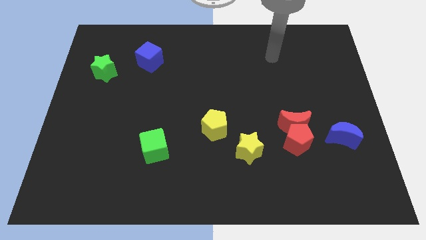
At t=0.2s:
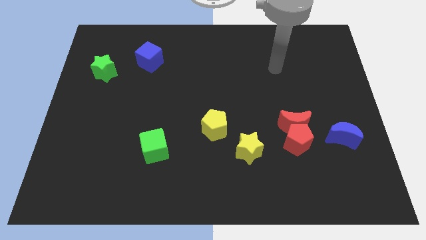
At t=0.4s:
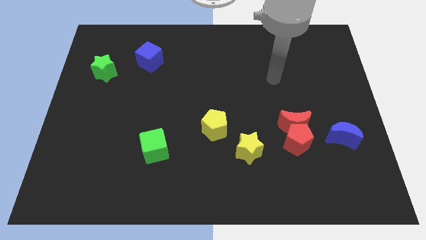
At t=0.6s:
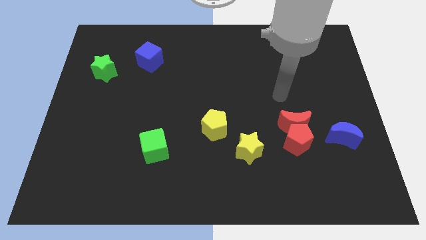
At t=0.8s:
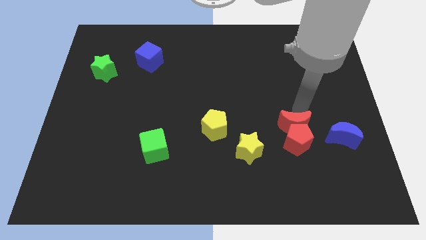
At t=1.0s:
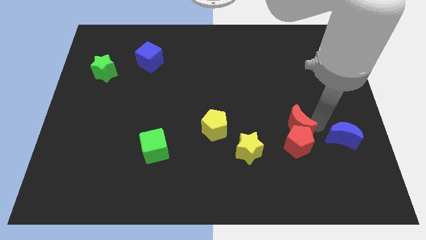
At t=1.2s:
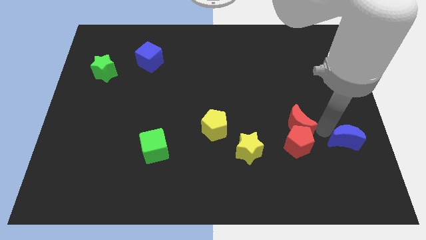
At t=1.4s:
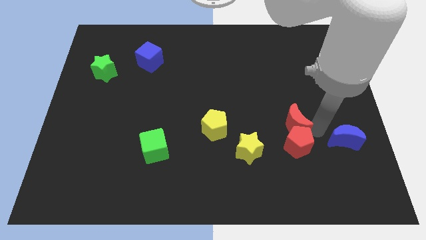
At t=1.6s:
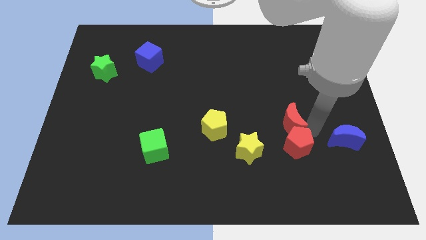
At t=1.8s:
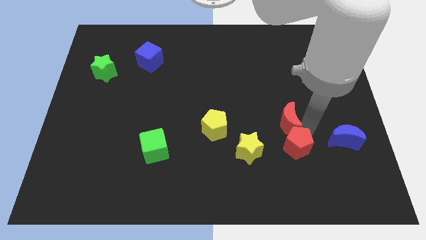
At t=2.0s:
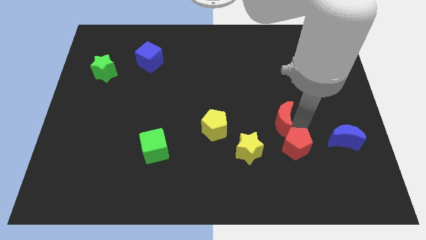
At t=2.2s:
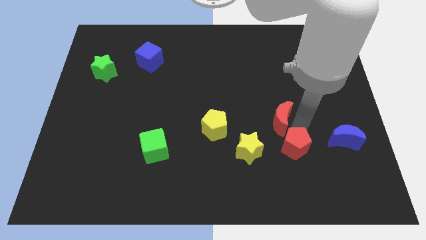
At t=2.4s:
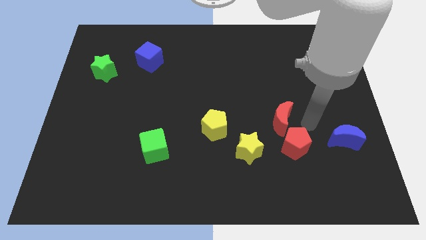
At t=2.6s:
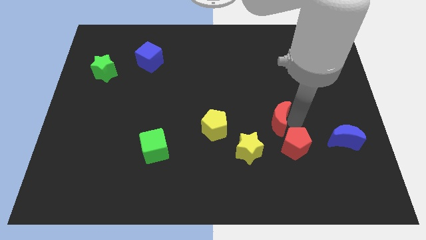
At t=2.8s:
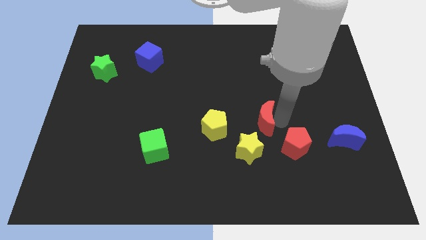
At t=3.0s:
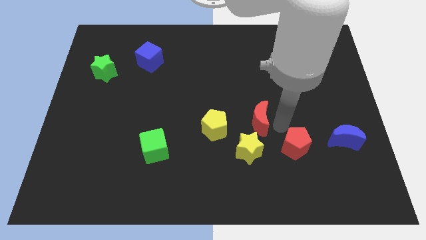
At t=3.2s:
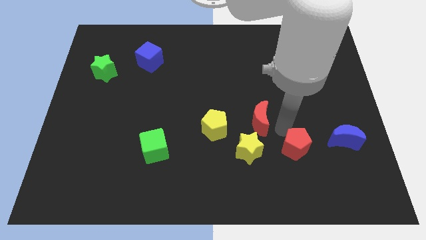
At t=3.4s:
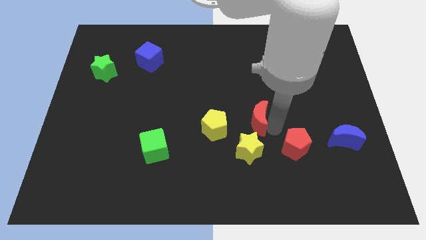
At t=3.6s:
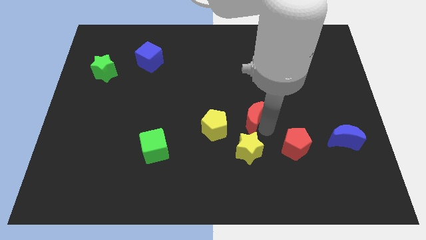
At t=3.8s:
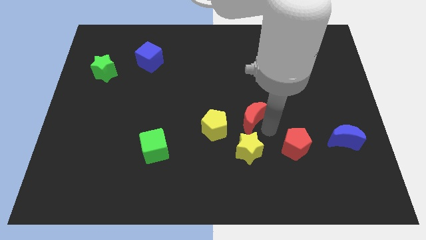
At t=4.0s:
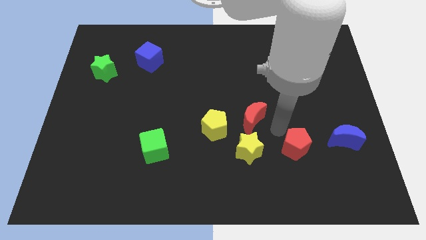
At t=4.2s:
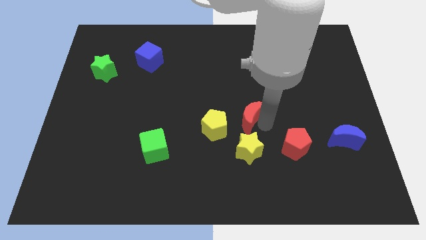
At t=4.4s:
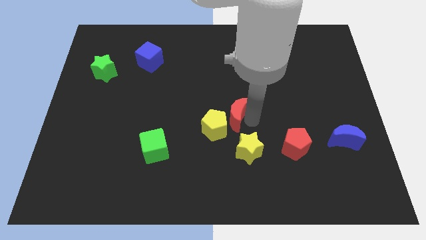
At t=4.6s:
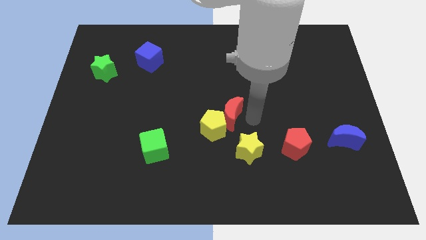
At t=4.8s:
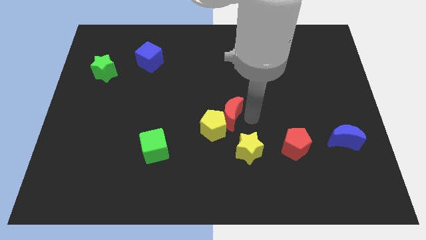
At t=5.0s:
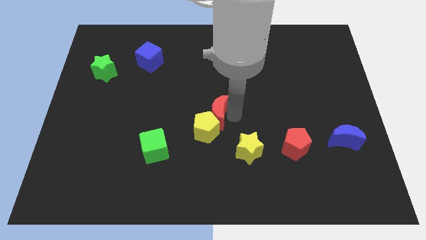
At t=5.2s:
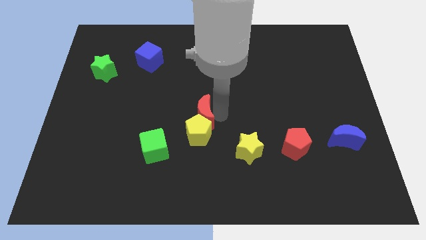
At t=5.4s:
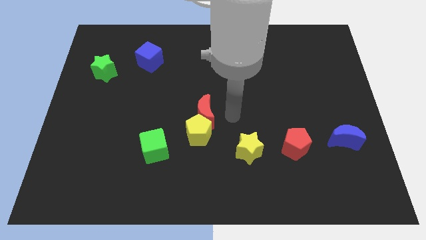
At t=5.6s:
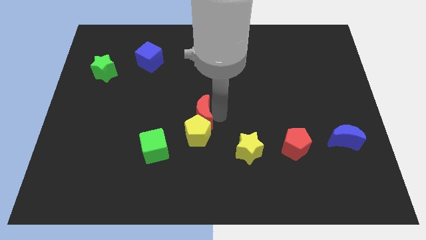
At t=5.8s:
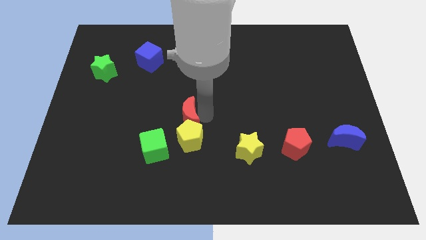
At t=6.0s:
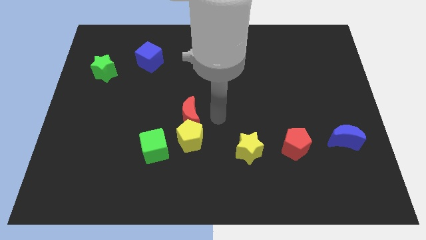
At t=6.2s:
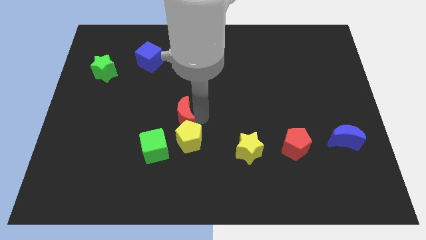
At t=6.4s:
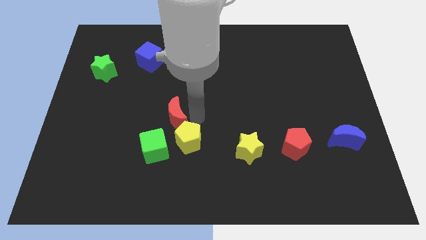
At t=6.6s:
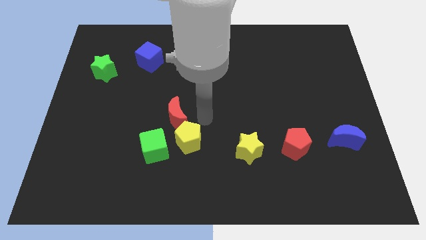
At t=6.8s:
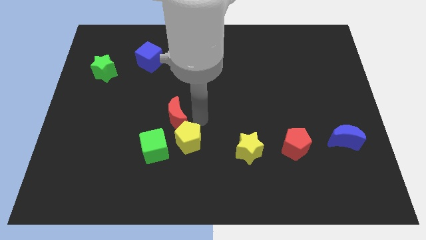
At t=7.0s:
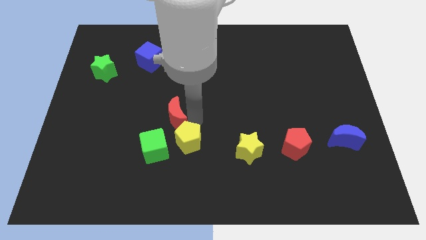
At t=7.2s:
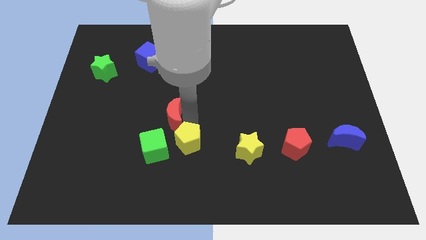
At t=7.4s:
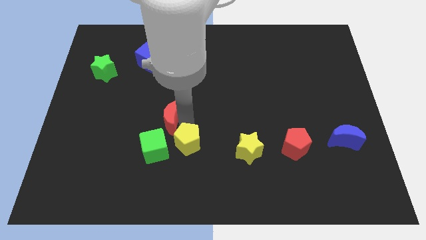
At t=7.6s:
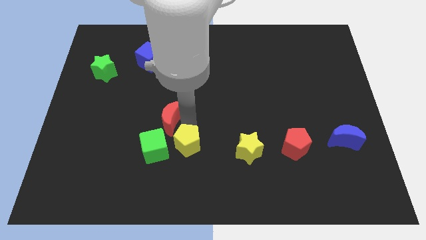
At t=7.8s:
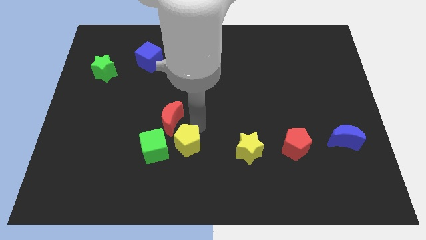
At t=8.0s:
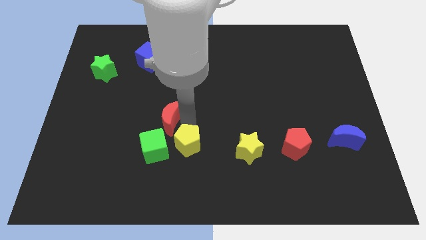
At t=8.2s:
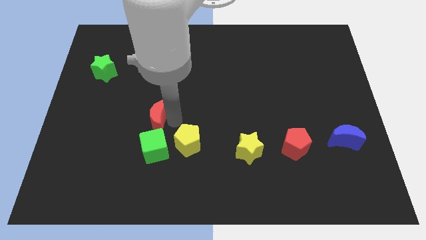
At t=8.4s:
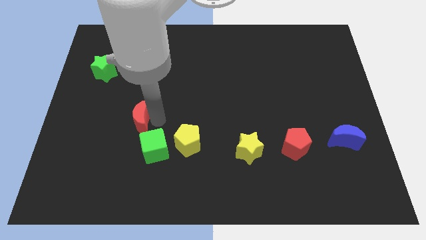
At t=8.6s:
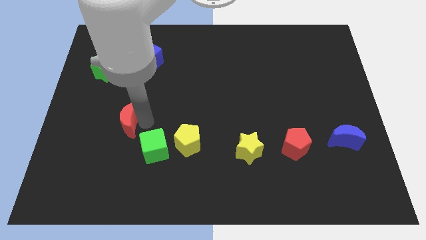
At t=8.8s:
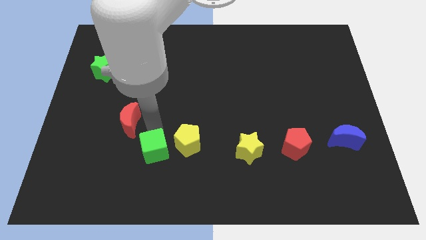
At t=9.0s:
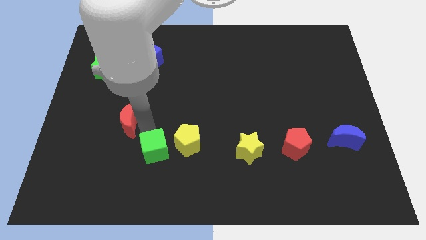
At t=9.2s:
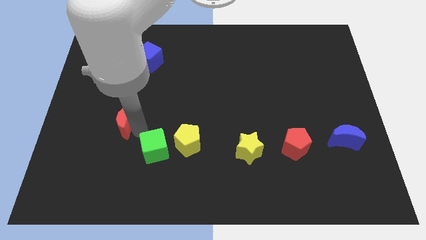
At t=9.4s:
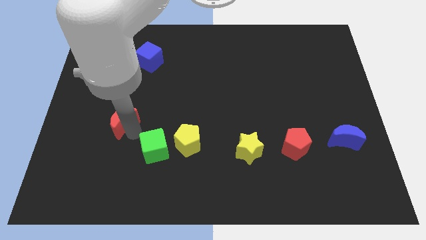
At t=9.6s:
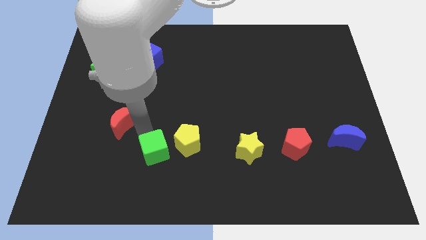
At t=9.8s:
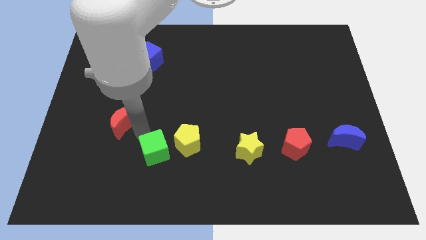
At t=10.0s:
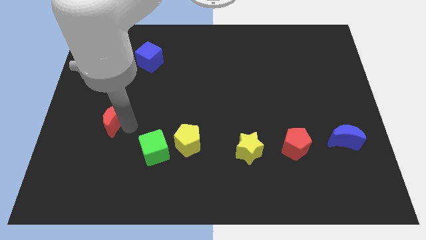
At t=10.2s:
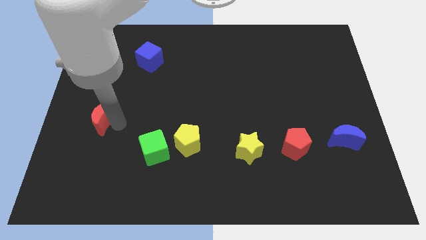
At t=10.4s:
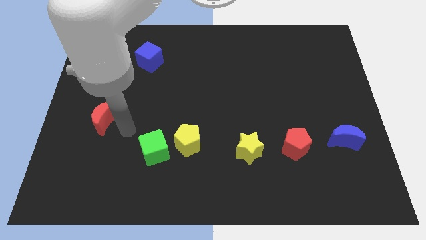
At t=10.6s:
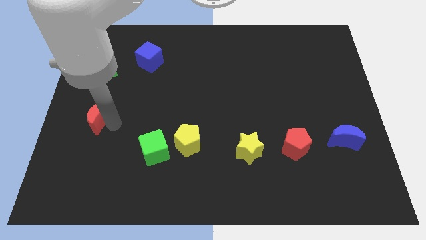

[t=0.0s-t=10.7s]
slide the red moon to the left side of the board

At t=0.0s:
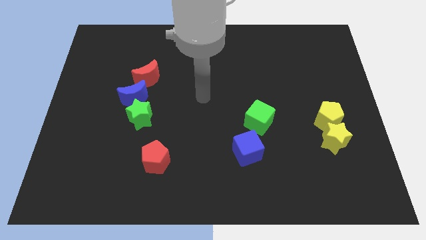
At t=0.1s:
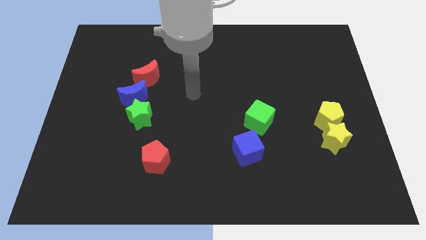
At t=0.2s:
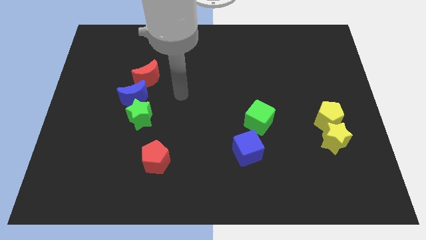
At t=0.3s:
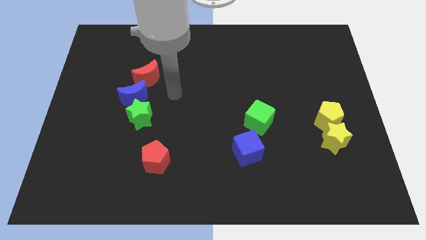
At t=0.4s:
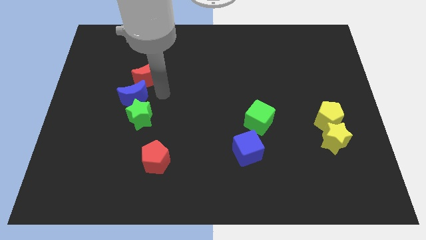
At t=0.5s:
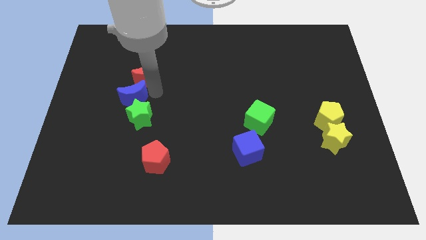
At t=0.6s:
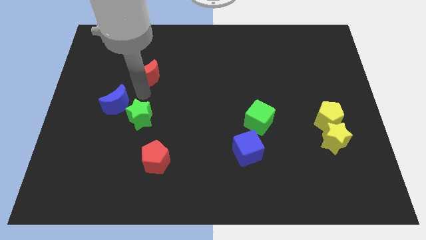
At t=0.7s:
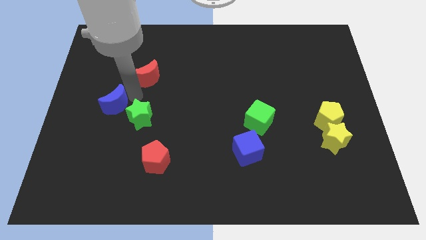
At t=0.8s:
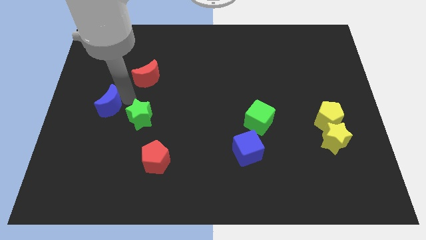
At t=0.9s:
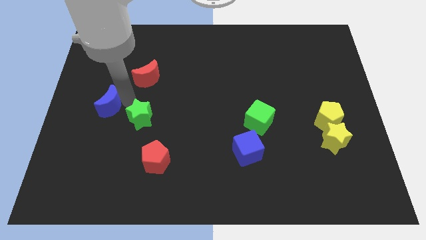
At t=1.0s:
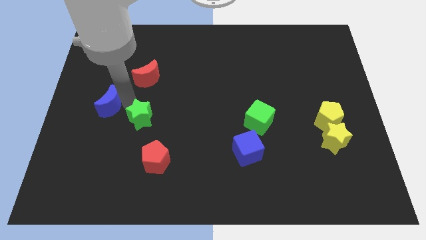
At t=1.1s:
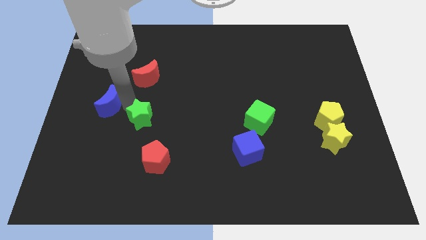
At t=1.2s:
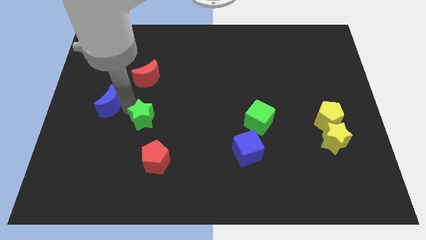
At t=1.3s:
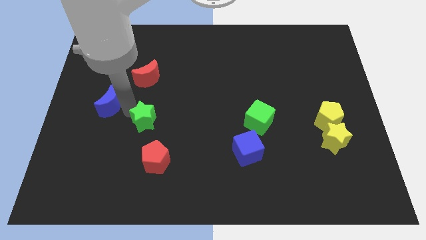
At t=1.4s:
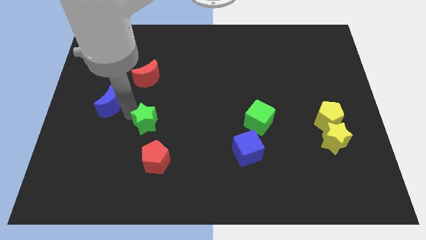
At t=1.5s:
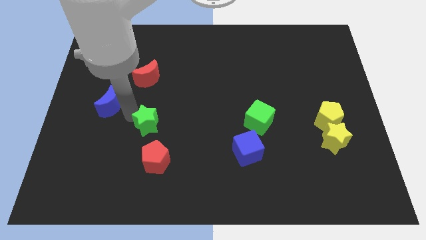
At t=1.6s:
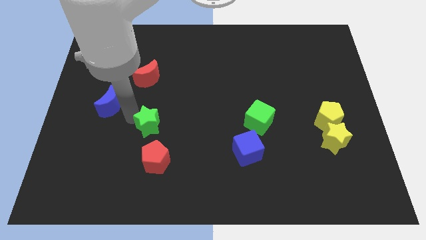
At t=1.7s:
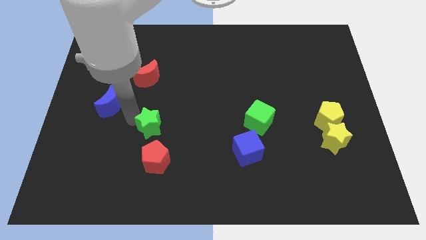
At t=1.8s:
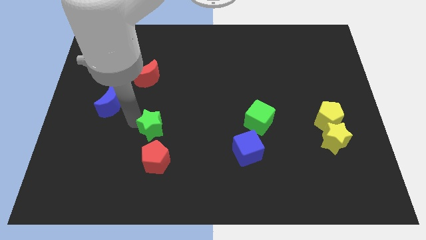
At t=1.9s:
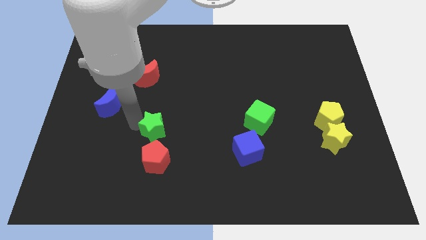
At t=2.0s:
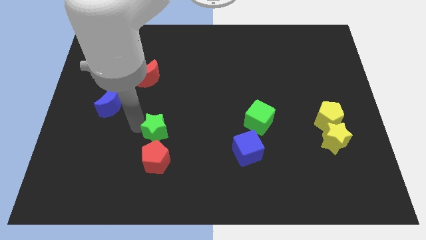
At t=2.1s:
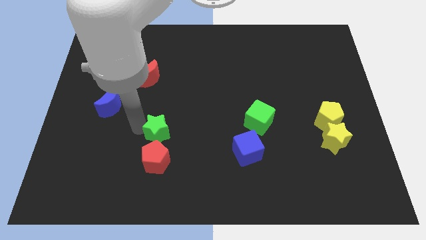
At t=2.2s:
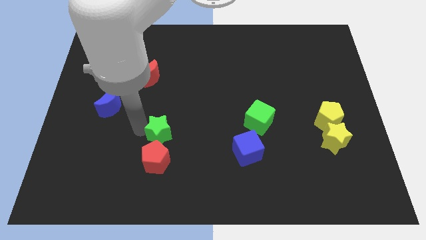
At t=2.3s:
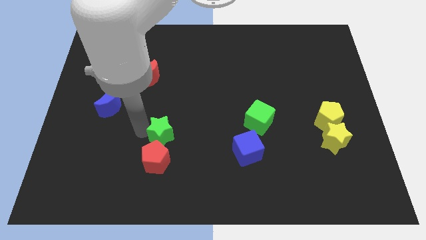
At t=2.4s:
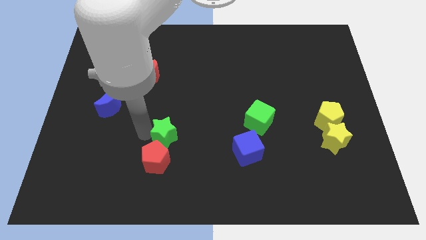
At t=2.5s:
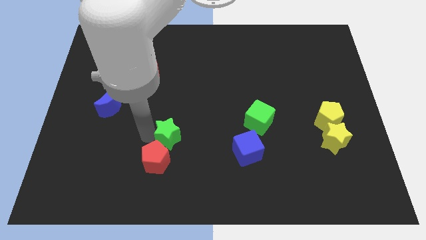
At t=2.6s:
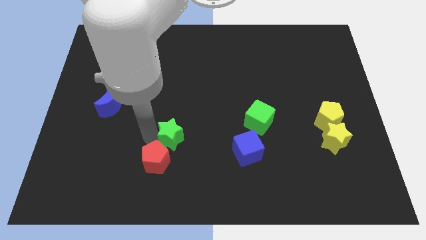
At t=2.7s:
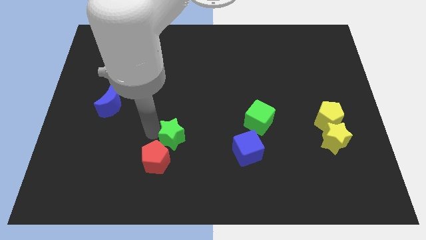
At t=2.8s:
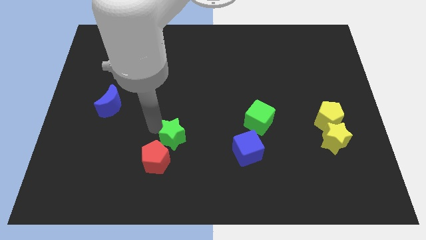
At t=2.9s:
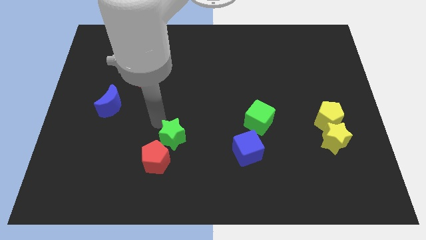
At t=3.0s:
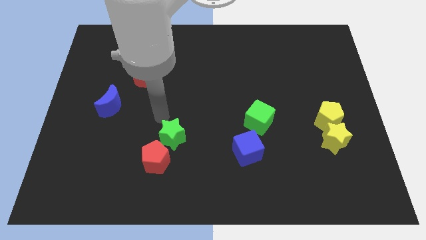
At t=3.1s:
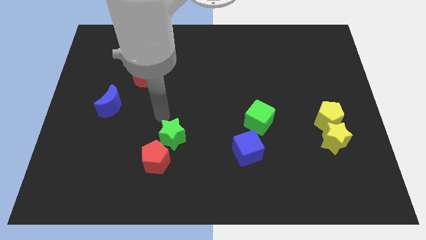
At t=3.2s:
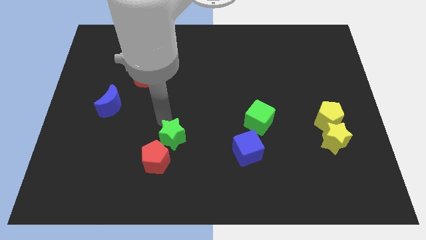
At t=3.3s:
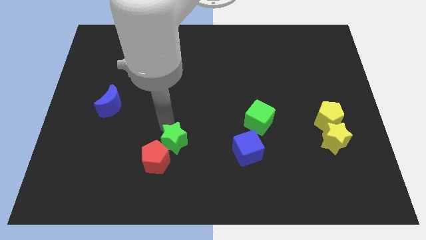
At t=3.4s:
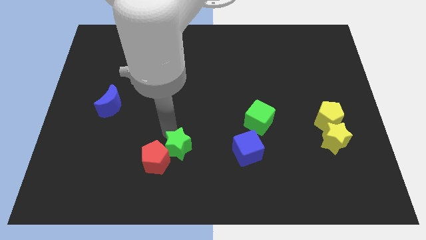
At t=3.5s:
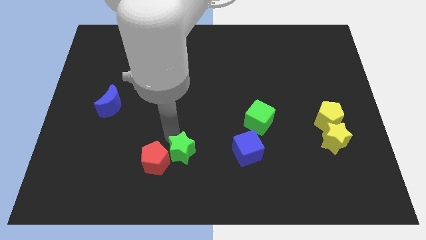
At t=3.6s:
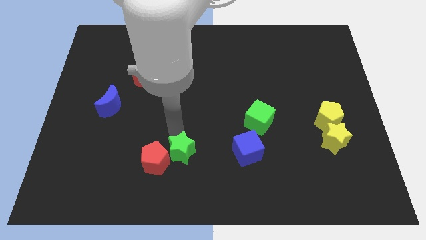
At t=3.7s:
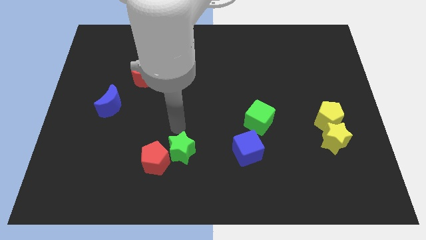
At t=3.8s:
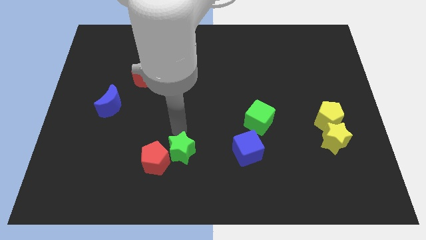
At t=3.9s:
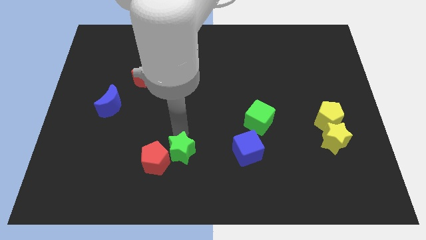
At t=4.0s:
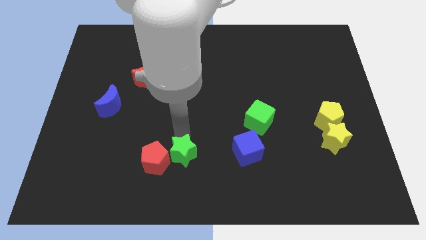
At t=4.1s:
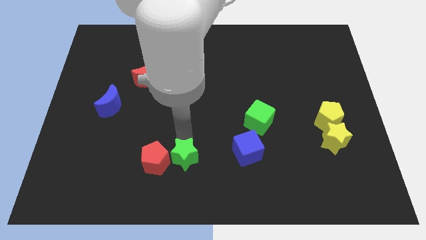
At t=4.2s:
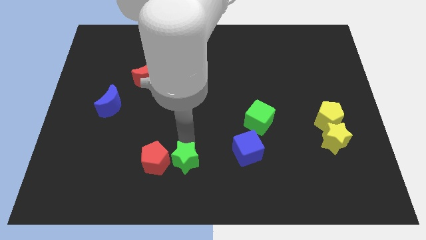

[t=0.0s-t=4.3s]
put the green star to the bottom
